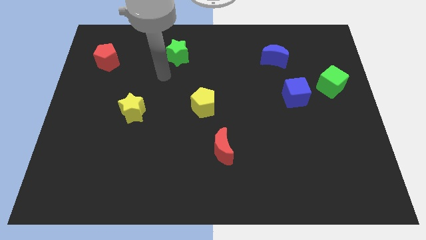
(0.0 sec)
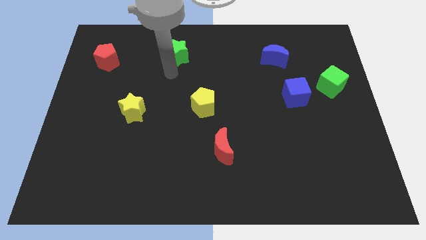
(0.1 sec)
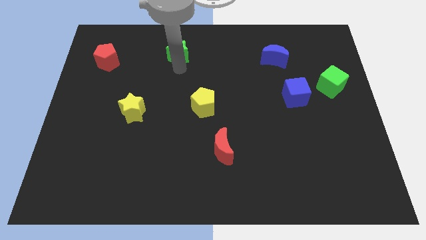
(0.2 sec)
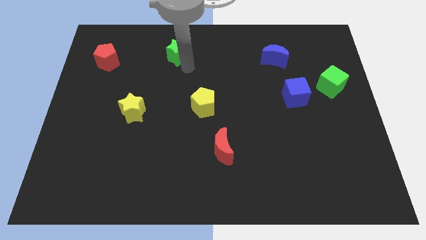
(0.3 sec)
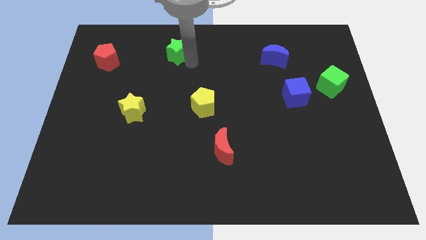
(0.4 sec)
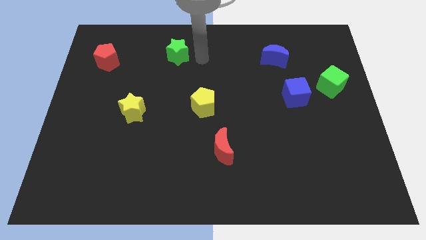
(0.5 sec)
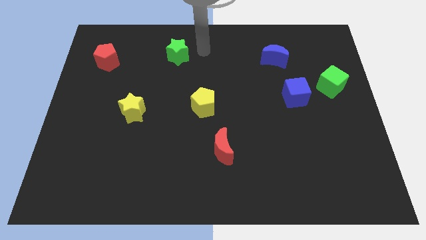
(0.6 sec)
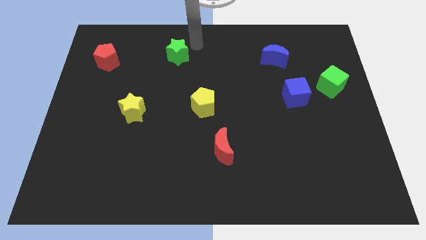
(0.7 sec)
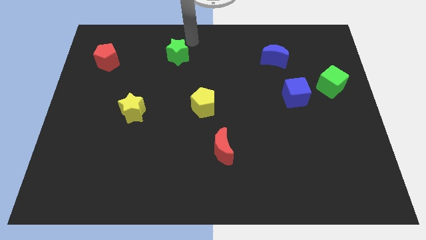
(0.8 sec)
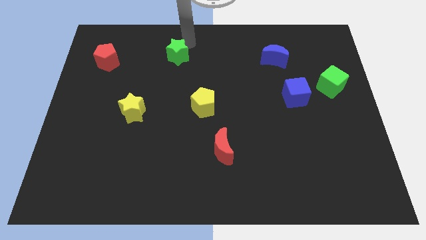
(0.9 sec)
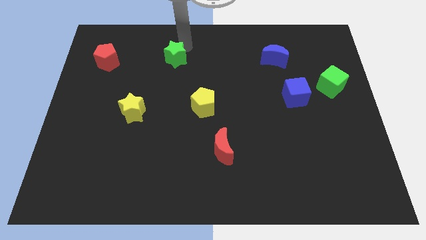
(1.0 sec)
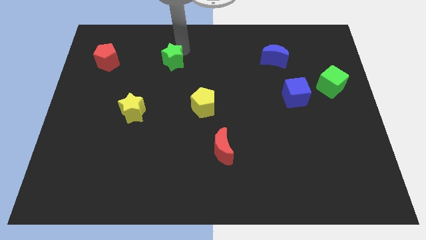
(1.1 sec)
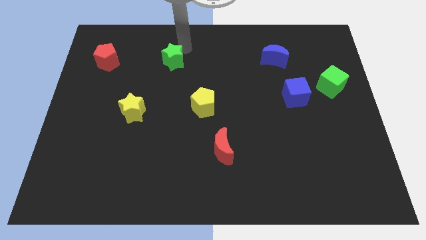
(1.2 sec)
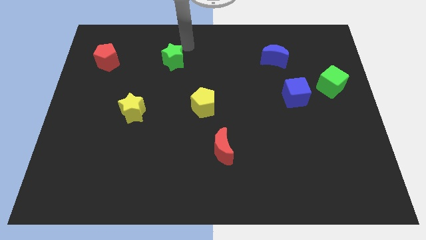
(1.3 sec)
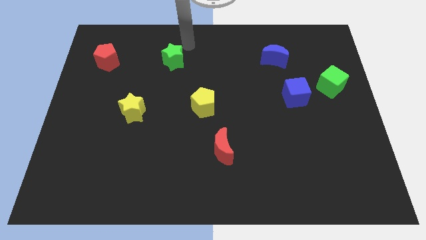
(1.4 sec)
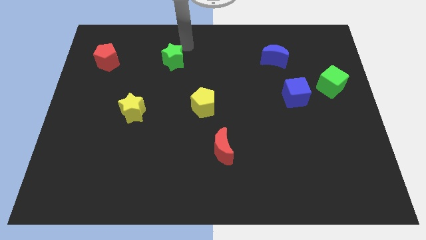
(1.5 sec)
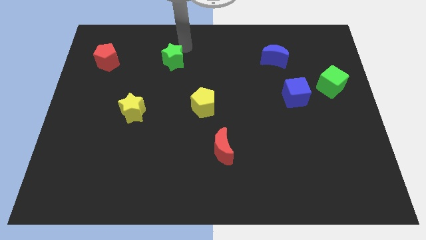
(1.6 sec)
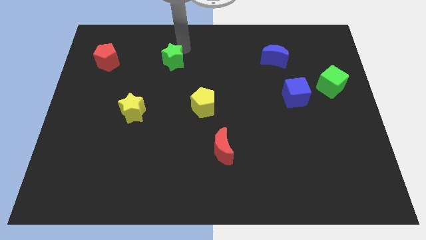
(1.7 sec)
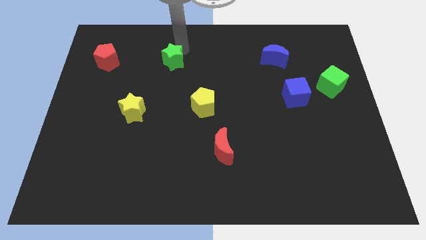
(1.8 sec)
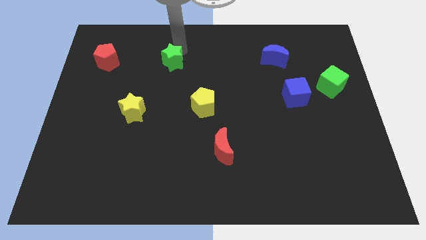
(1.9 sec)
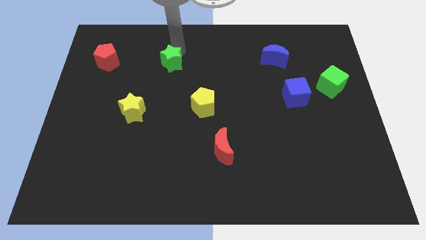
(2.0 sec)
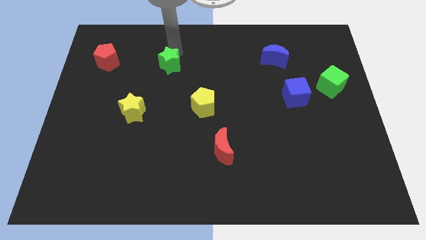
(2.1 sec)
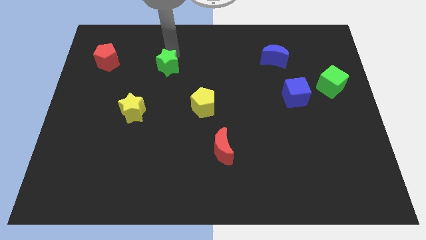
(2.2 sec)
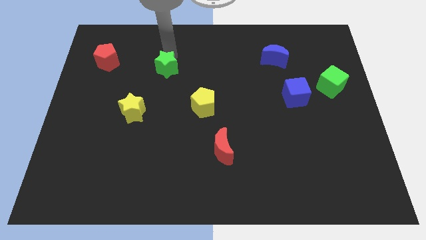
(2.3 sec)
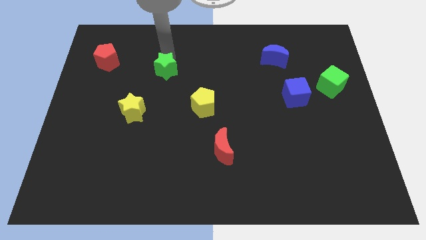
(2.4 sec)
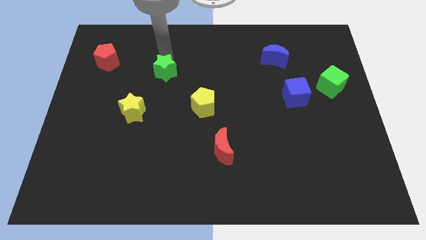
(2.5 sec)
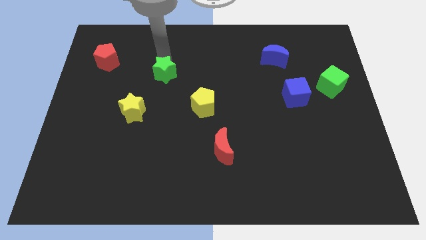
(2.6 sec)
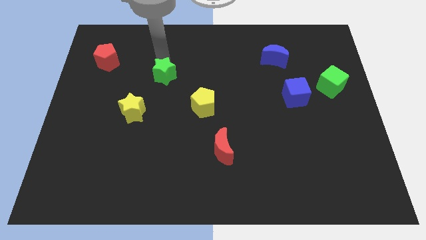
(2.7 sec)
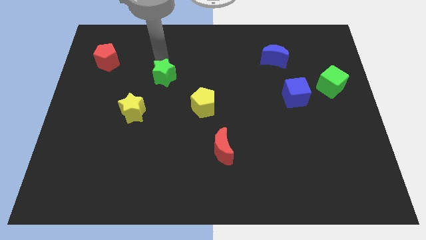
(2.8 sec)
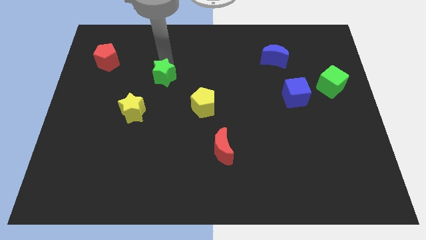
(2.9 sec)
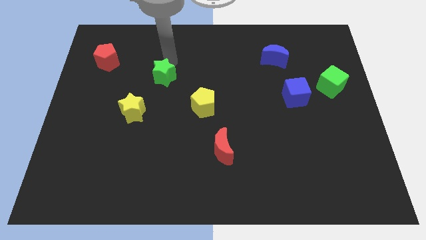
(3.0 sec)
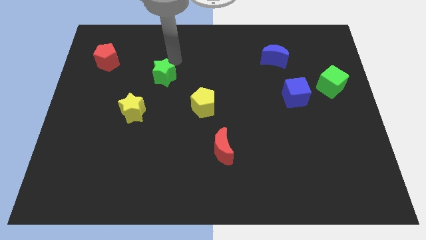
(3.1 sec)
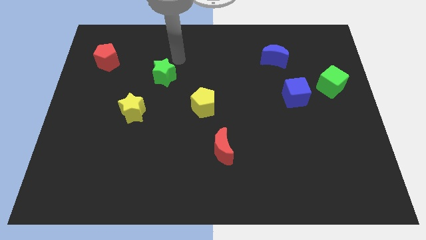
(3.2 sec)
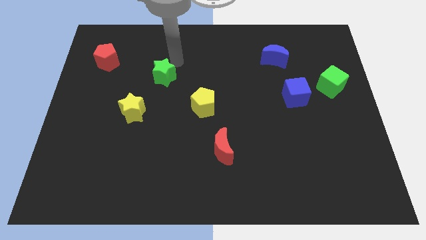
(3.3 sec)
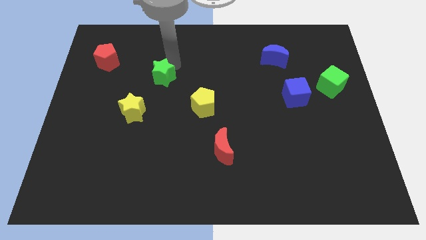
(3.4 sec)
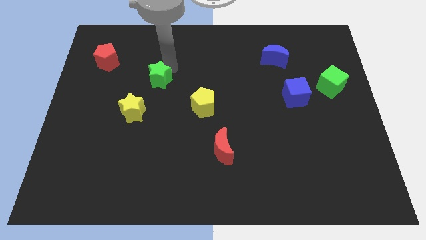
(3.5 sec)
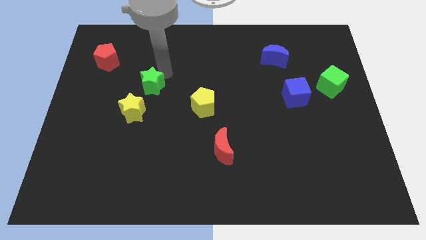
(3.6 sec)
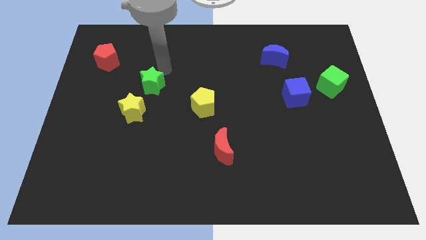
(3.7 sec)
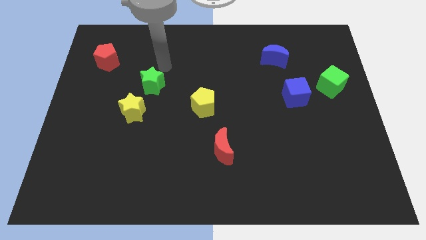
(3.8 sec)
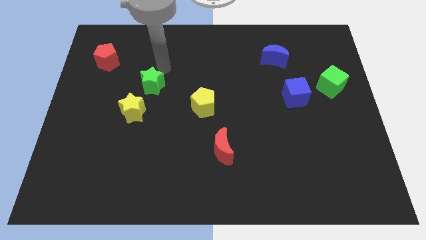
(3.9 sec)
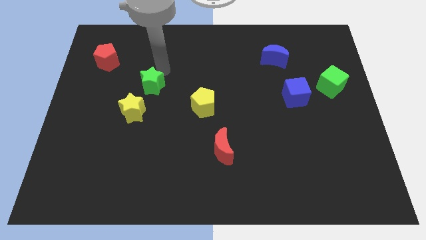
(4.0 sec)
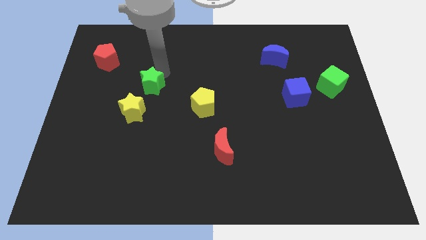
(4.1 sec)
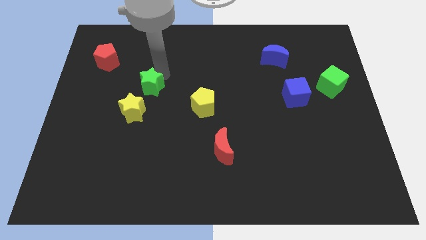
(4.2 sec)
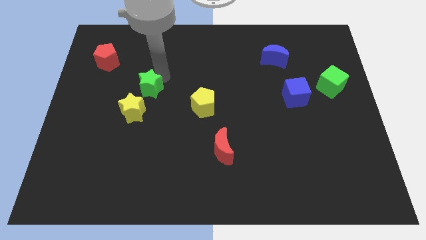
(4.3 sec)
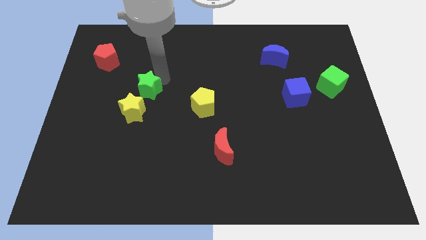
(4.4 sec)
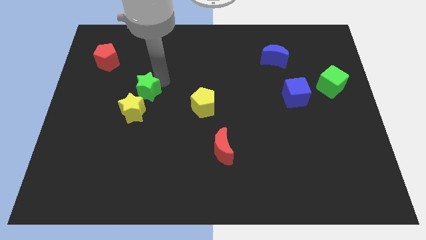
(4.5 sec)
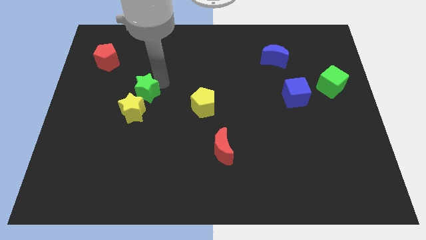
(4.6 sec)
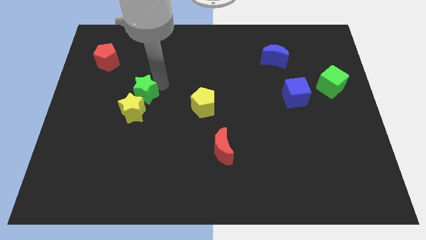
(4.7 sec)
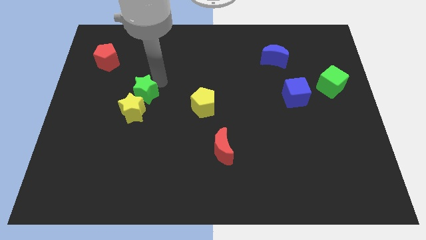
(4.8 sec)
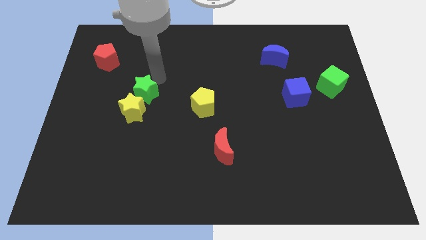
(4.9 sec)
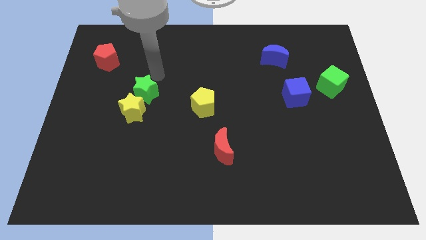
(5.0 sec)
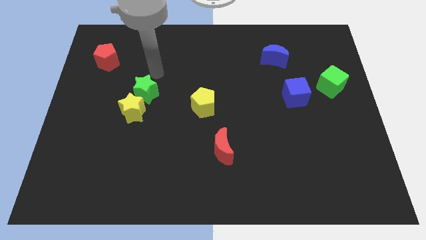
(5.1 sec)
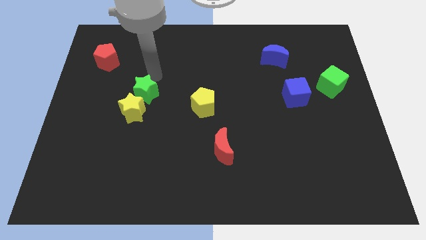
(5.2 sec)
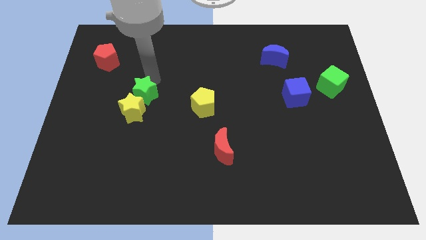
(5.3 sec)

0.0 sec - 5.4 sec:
push the green star towards the yellow star

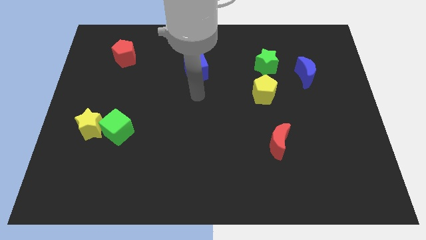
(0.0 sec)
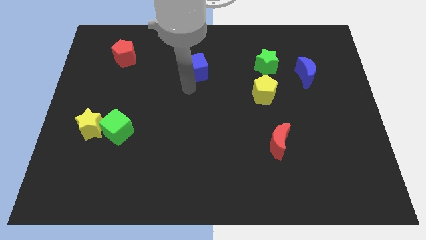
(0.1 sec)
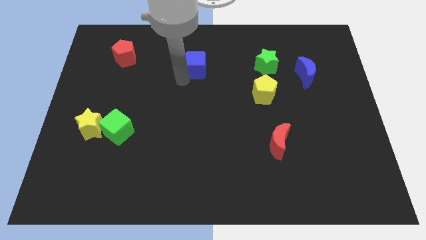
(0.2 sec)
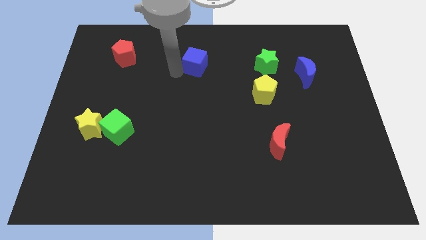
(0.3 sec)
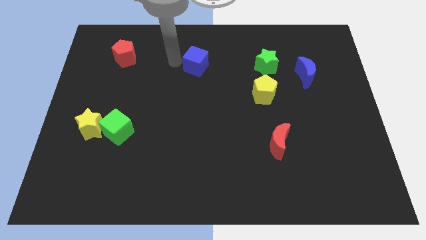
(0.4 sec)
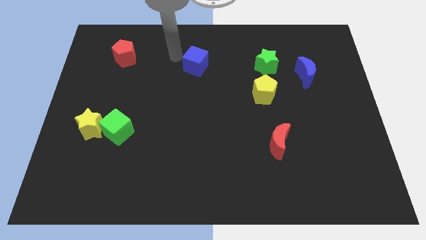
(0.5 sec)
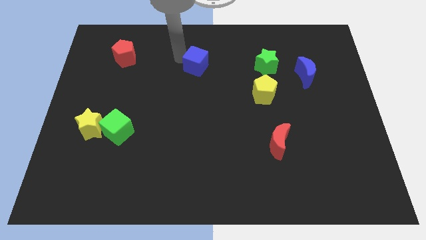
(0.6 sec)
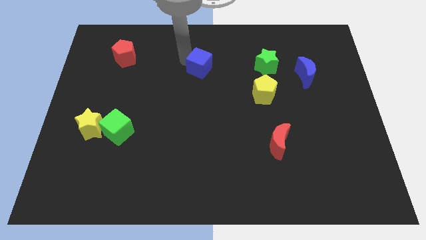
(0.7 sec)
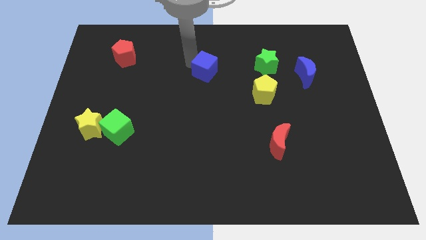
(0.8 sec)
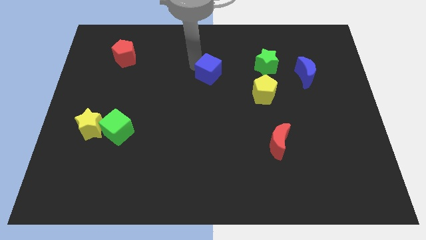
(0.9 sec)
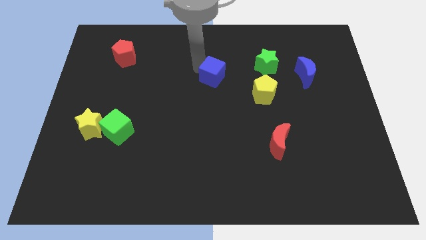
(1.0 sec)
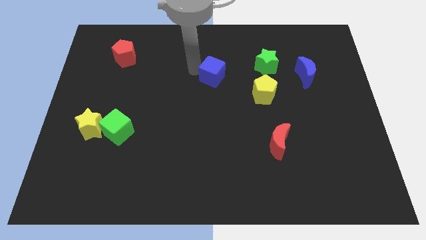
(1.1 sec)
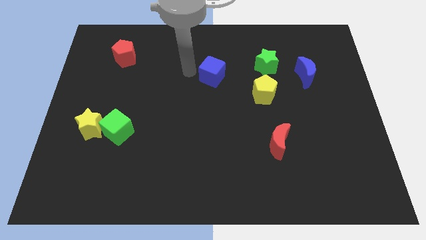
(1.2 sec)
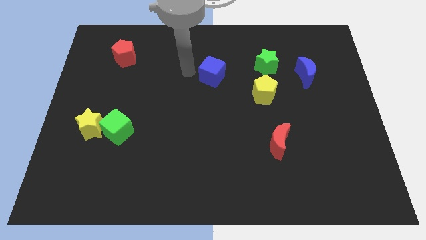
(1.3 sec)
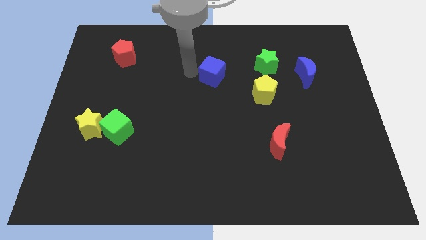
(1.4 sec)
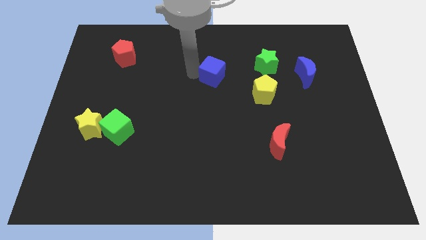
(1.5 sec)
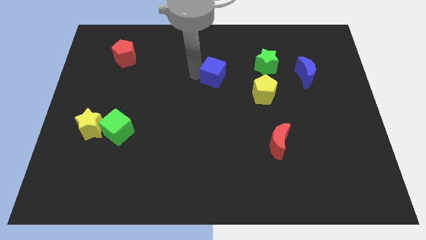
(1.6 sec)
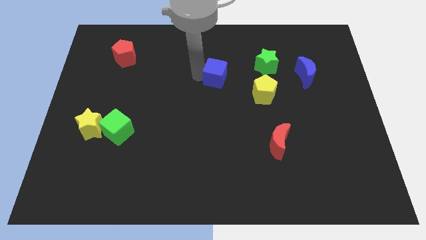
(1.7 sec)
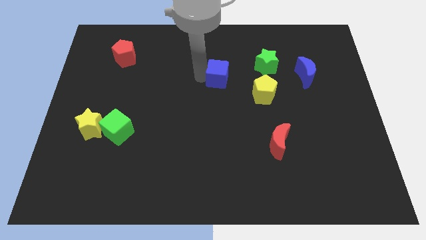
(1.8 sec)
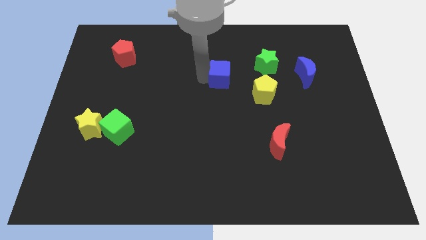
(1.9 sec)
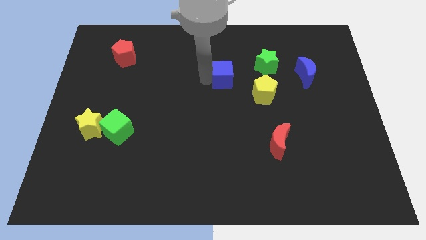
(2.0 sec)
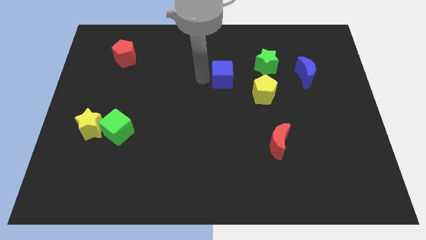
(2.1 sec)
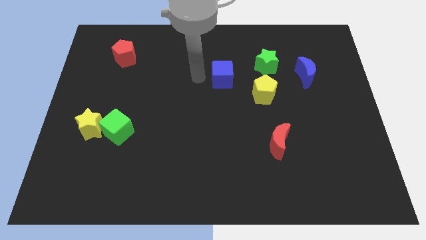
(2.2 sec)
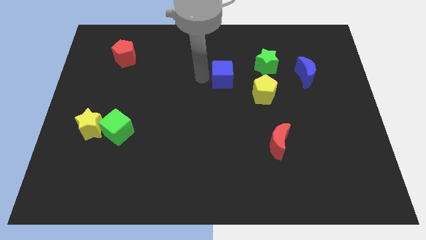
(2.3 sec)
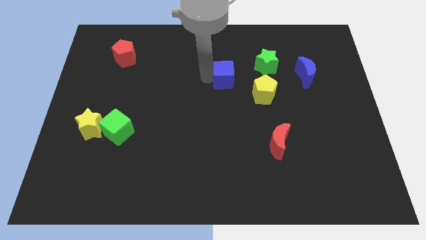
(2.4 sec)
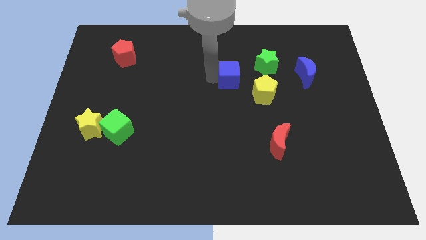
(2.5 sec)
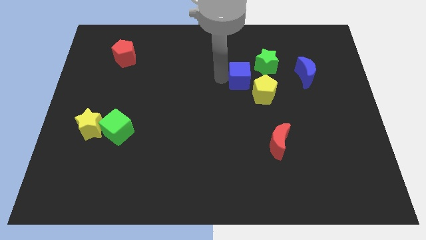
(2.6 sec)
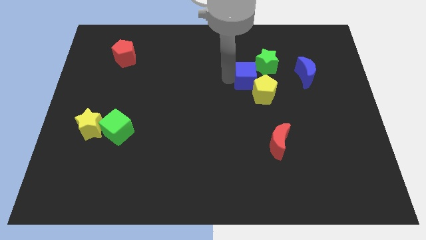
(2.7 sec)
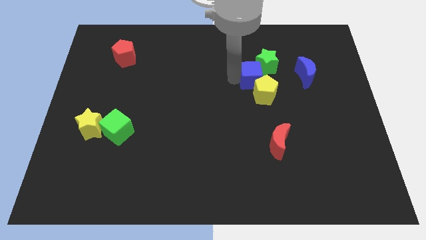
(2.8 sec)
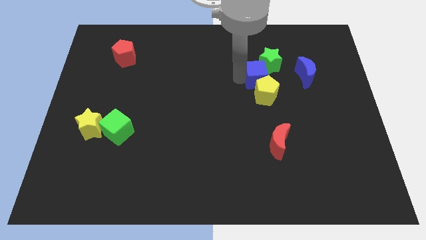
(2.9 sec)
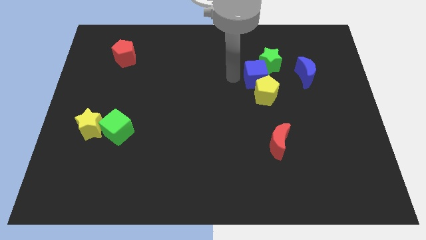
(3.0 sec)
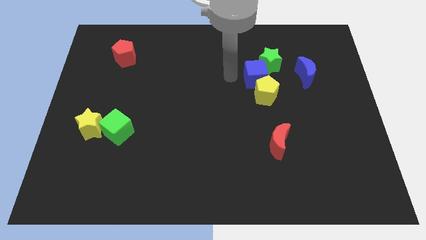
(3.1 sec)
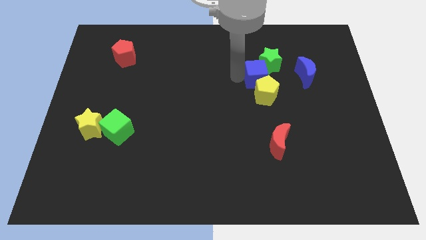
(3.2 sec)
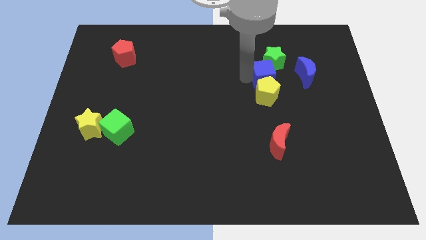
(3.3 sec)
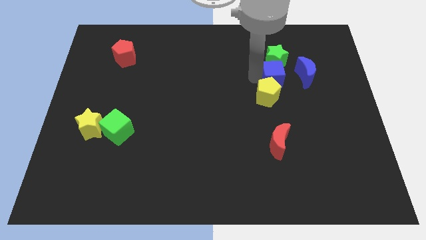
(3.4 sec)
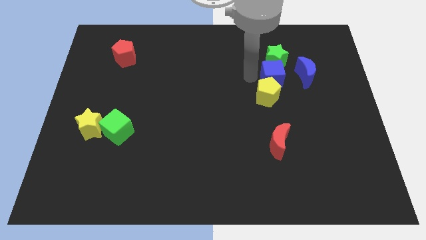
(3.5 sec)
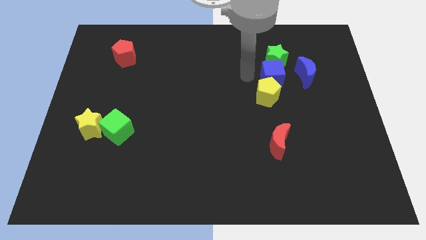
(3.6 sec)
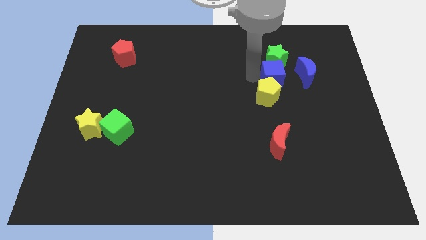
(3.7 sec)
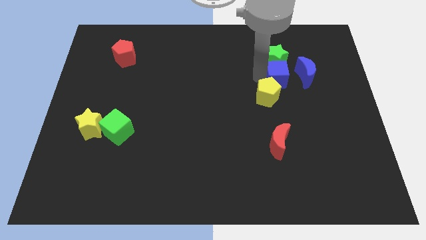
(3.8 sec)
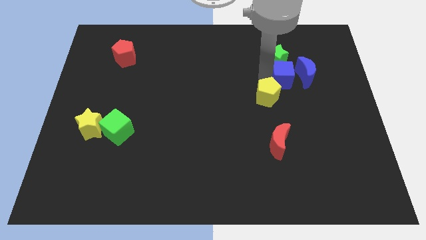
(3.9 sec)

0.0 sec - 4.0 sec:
push the blue cube next to the blue moon
